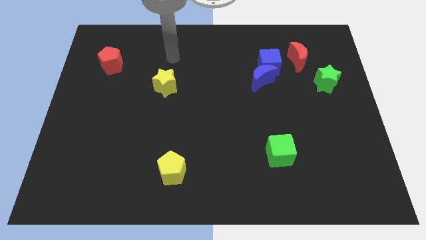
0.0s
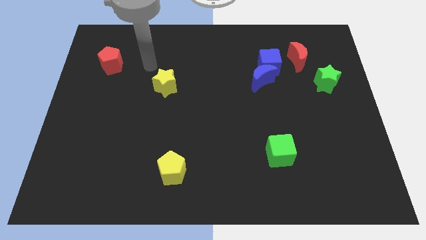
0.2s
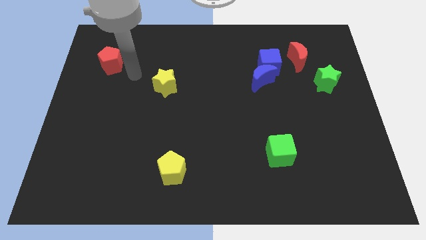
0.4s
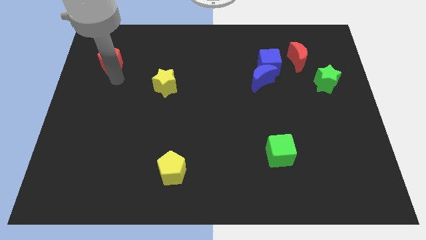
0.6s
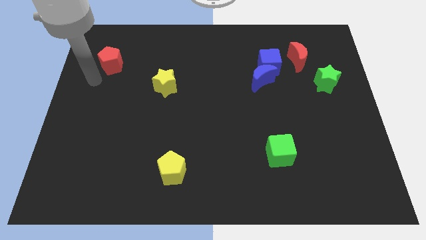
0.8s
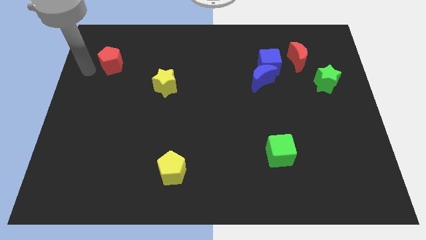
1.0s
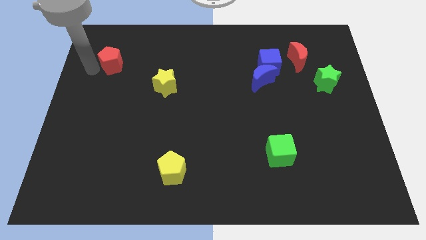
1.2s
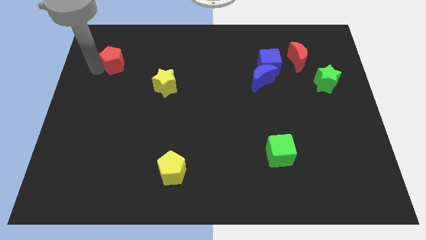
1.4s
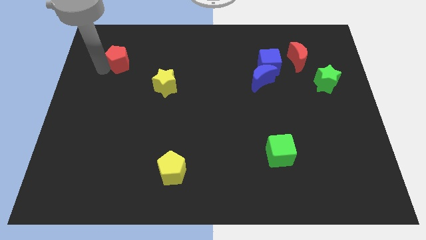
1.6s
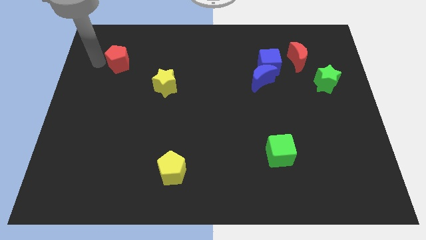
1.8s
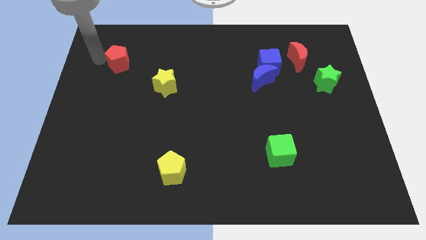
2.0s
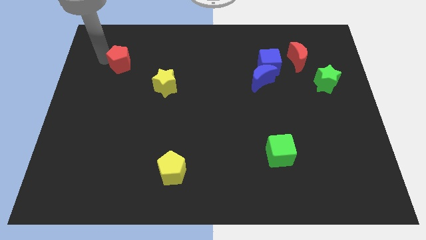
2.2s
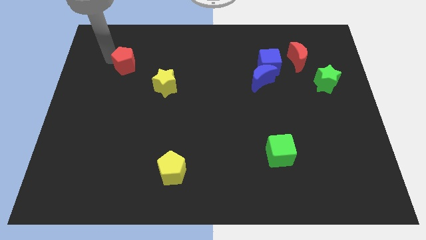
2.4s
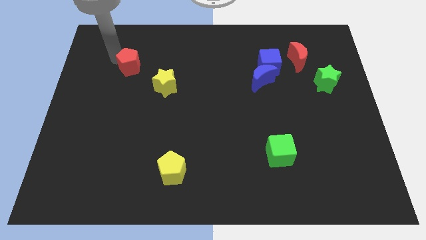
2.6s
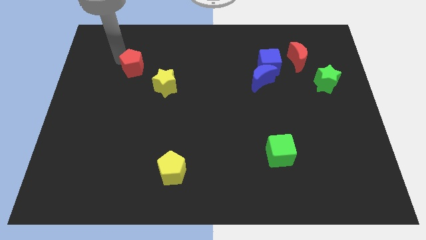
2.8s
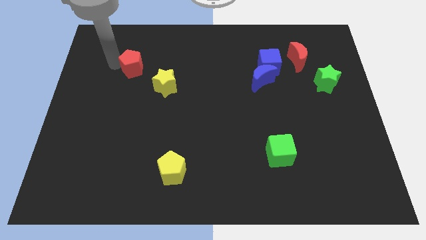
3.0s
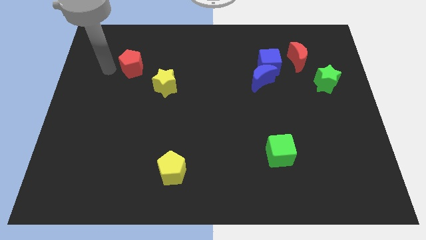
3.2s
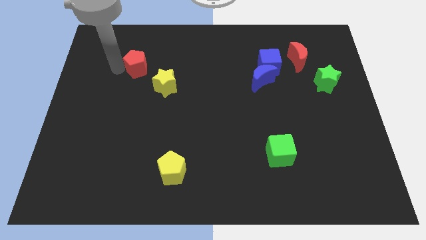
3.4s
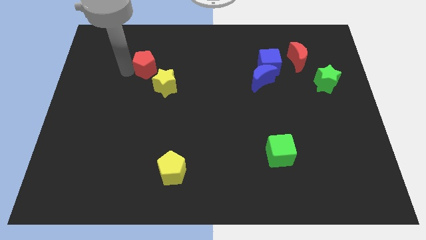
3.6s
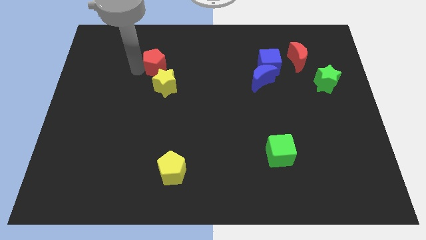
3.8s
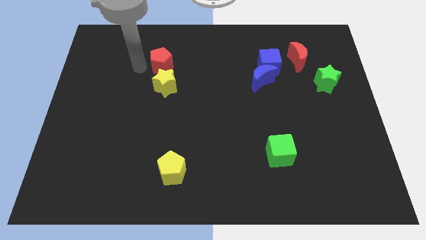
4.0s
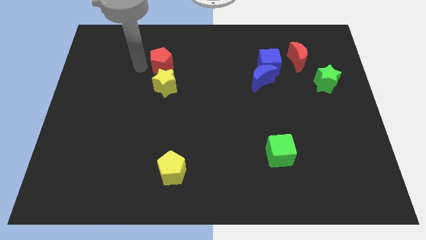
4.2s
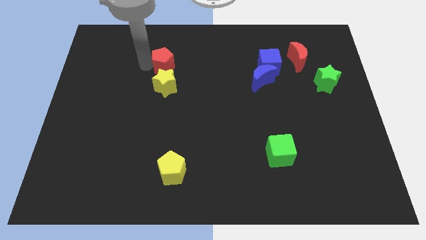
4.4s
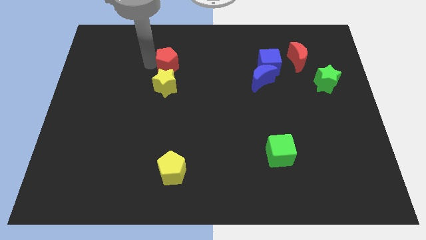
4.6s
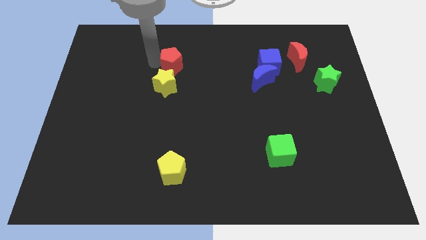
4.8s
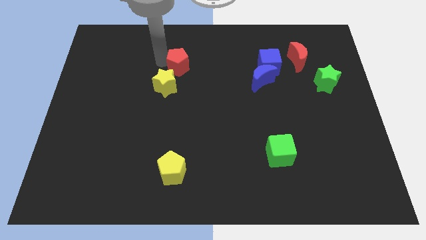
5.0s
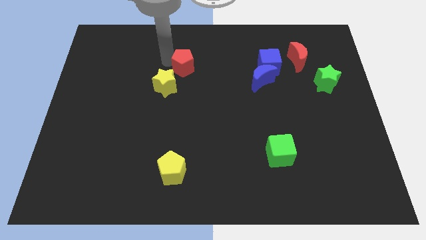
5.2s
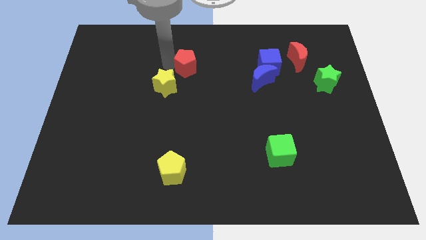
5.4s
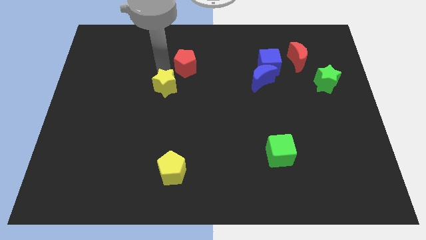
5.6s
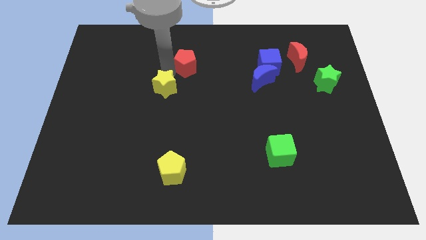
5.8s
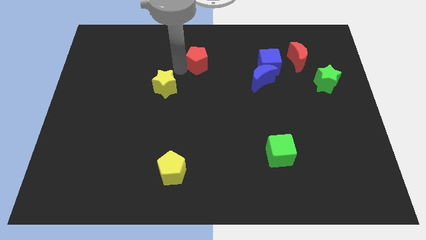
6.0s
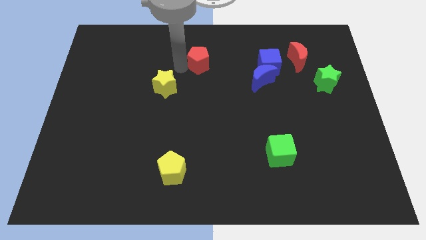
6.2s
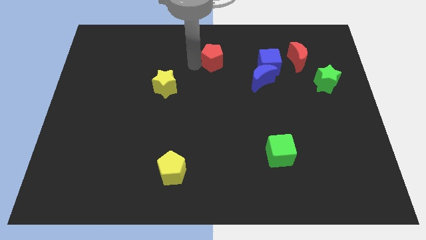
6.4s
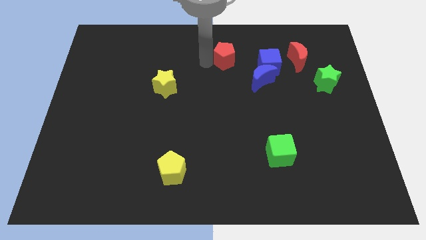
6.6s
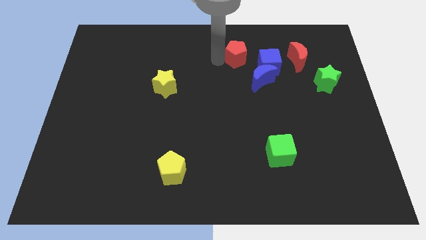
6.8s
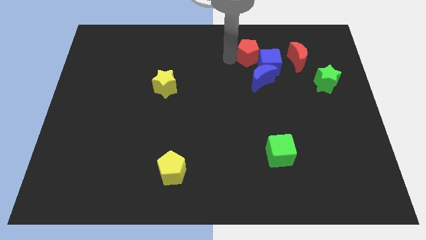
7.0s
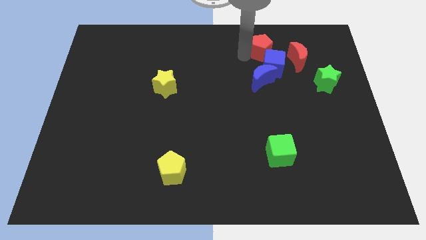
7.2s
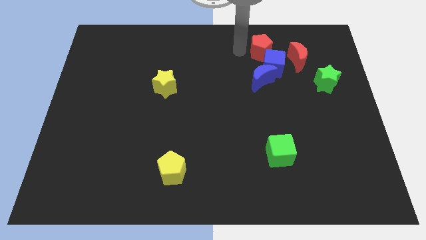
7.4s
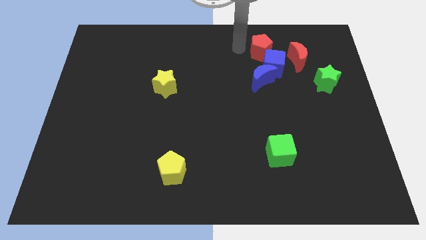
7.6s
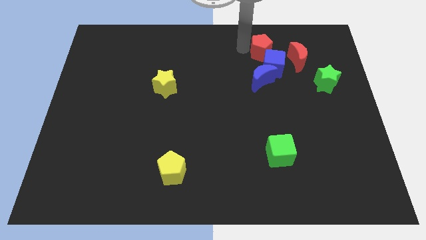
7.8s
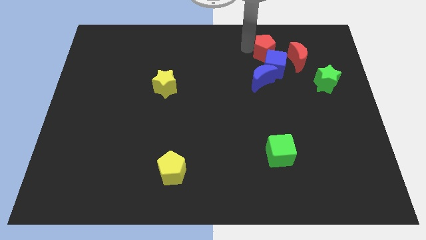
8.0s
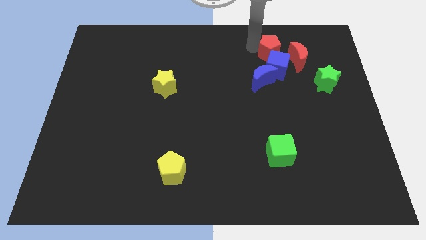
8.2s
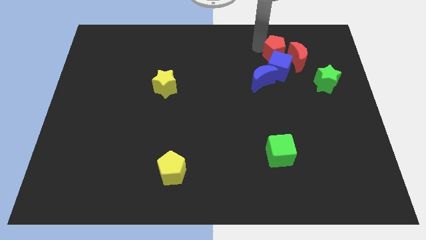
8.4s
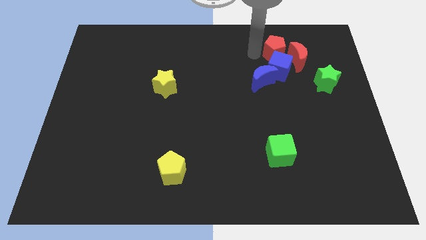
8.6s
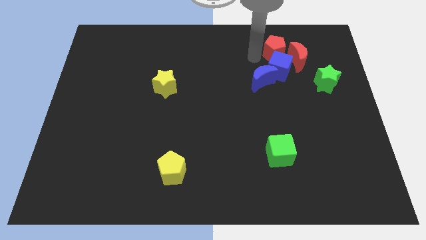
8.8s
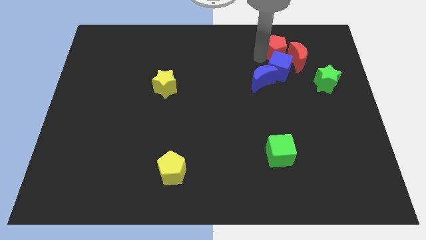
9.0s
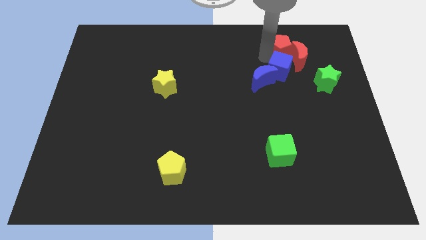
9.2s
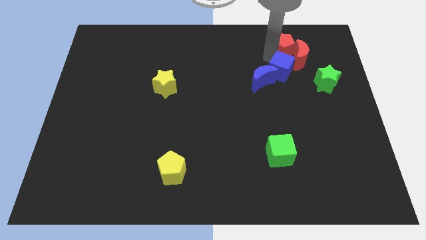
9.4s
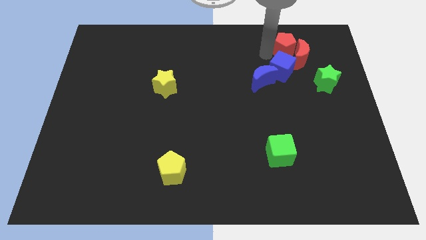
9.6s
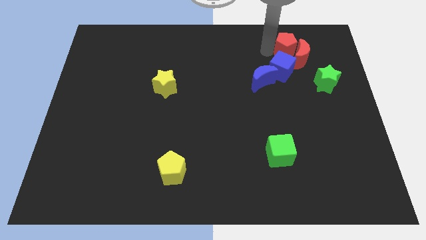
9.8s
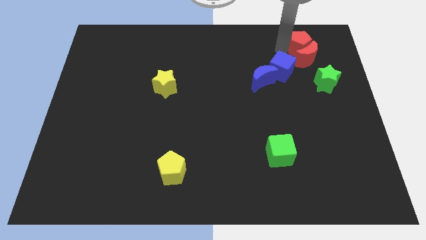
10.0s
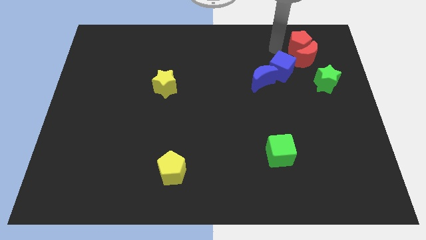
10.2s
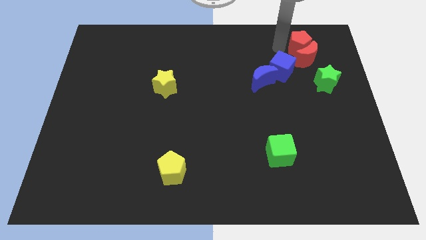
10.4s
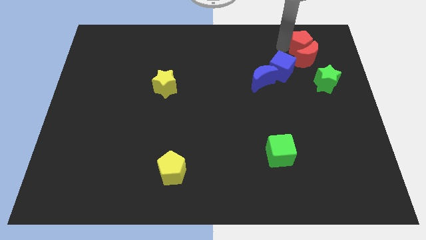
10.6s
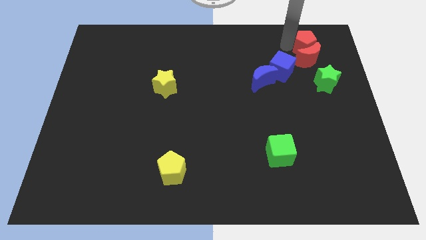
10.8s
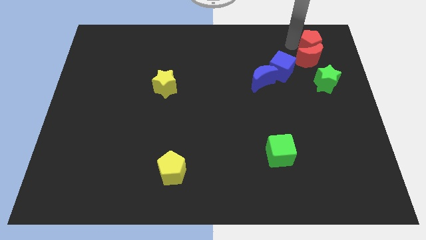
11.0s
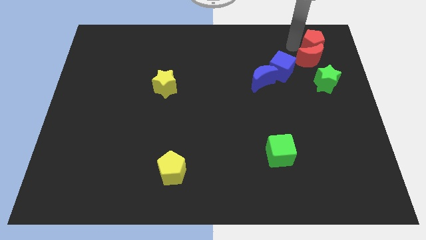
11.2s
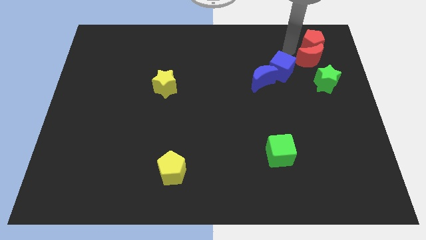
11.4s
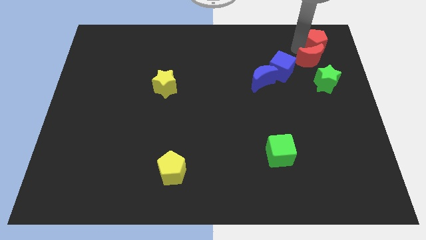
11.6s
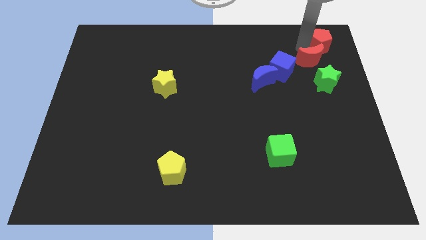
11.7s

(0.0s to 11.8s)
slide the red pentagon to the upper right corner

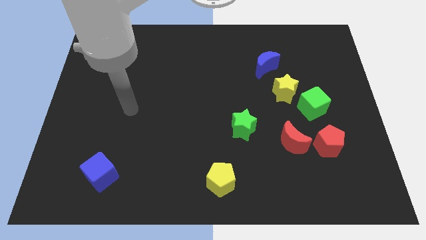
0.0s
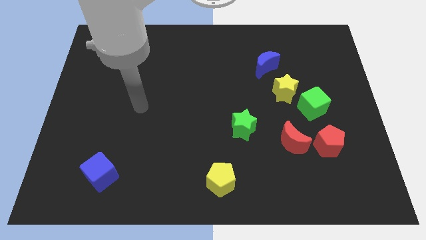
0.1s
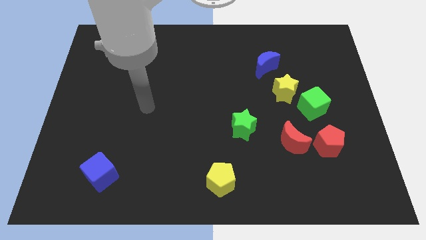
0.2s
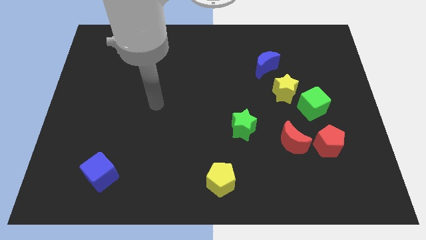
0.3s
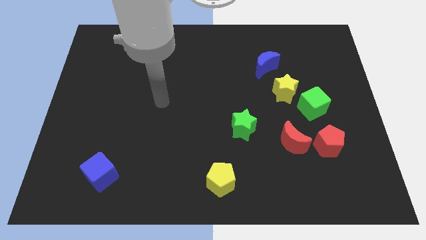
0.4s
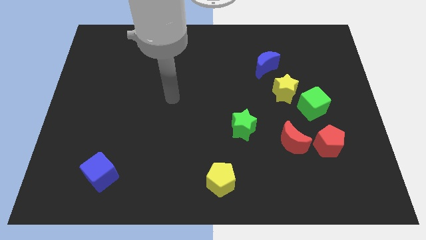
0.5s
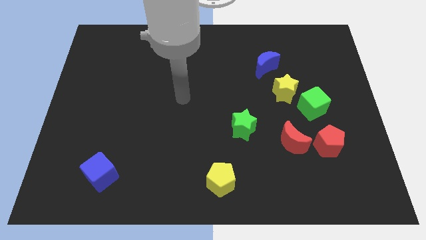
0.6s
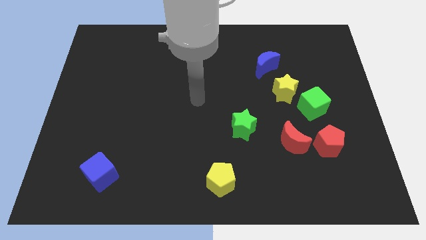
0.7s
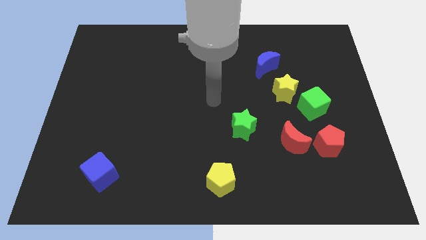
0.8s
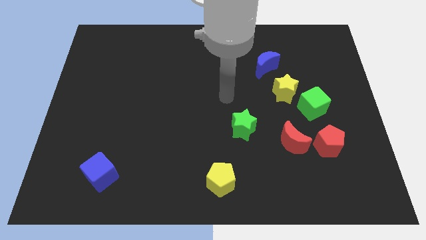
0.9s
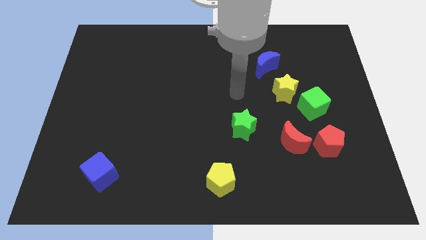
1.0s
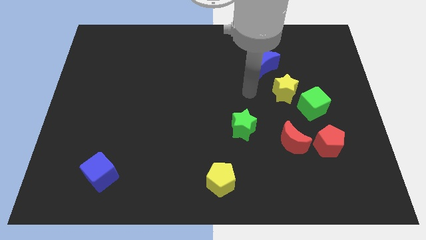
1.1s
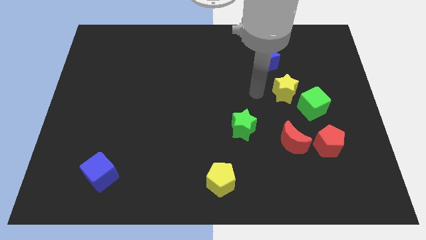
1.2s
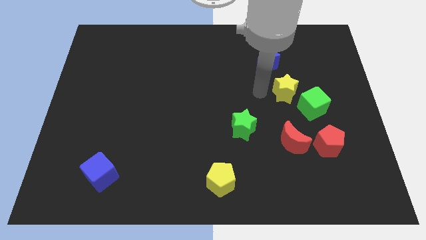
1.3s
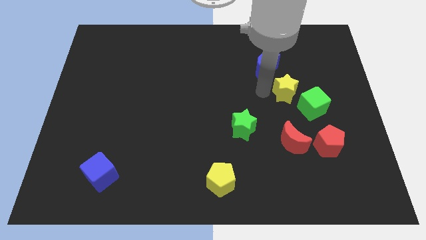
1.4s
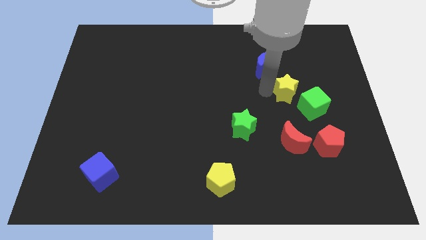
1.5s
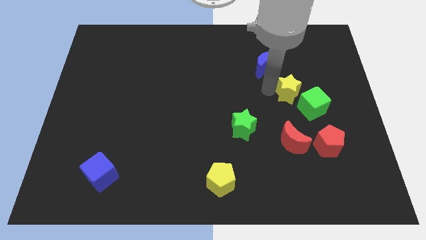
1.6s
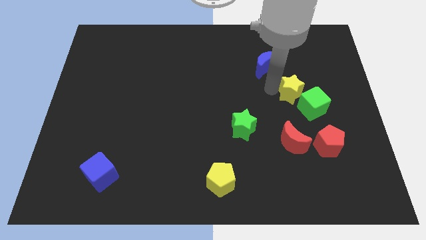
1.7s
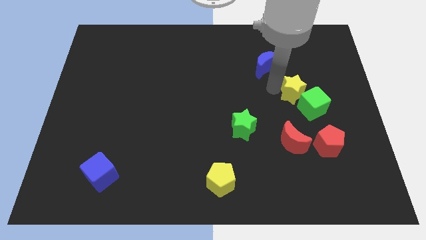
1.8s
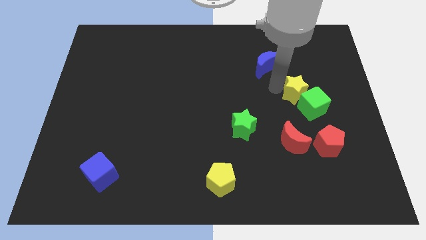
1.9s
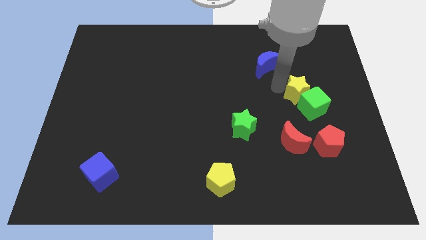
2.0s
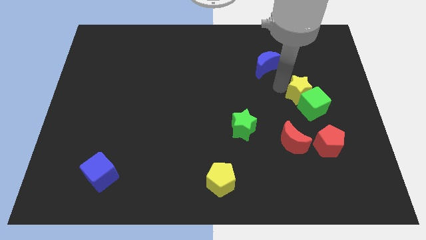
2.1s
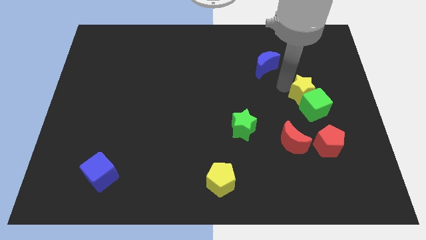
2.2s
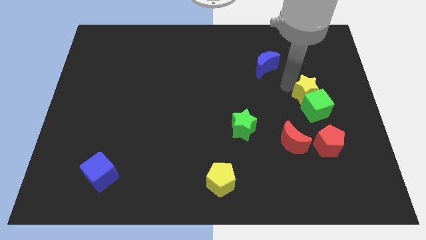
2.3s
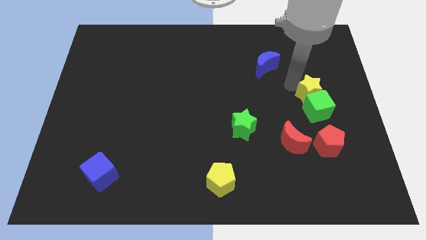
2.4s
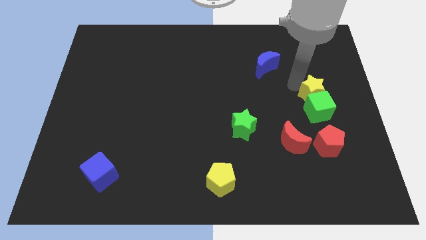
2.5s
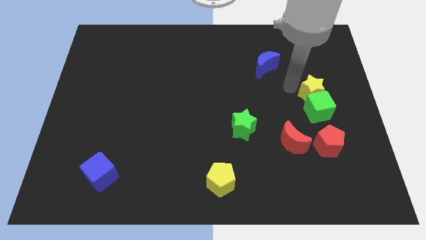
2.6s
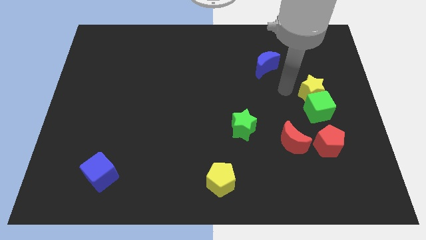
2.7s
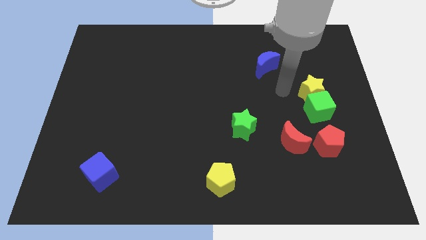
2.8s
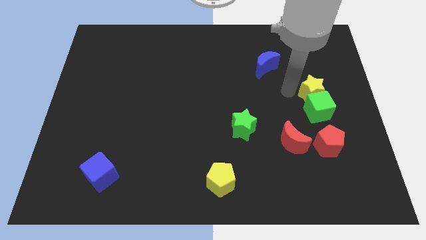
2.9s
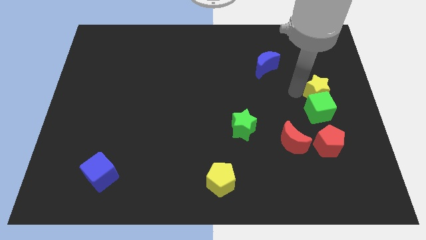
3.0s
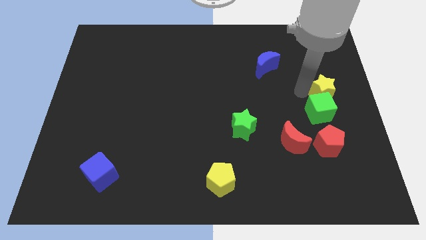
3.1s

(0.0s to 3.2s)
move the yellow star to the right side of the board
